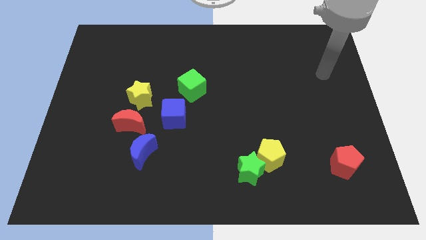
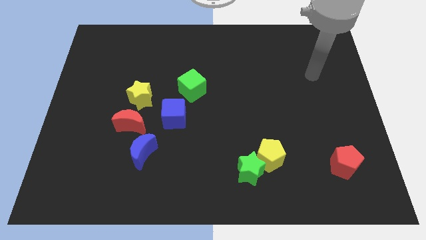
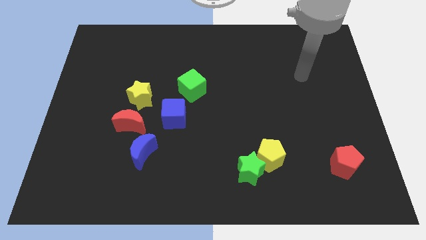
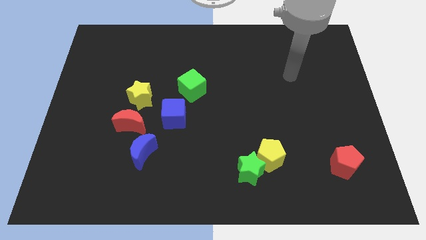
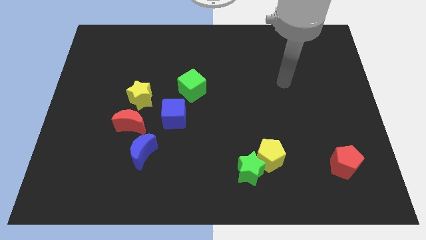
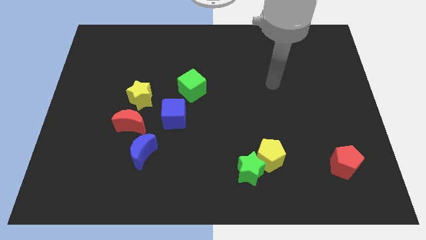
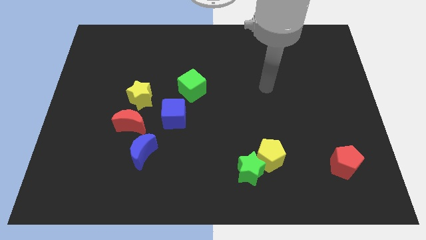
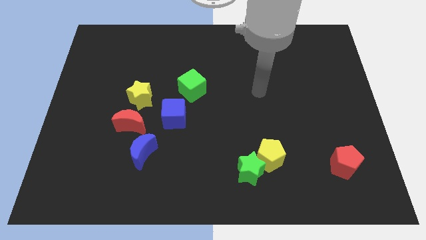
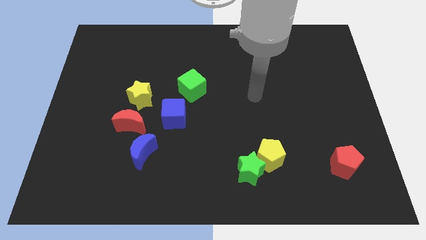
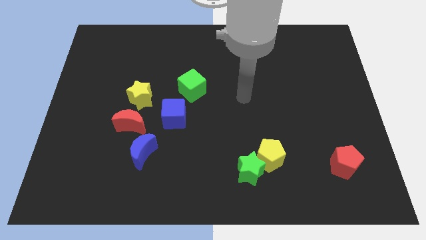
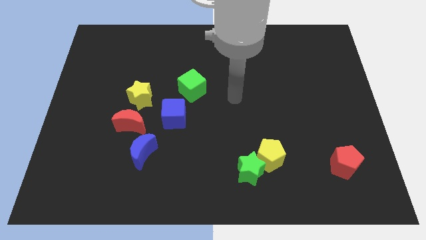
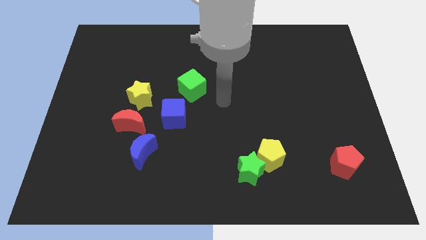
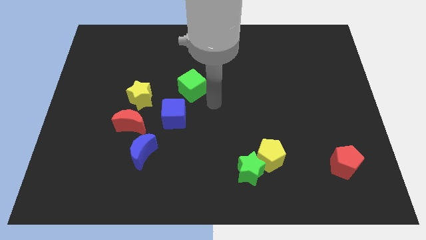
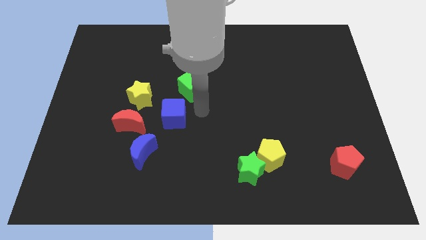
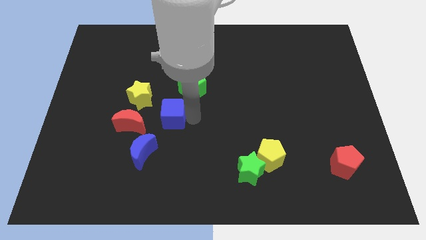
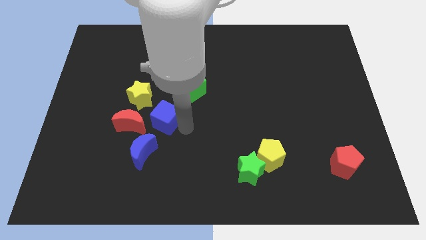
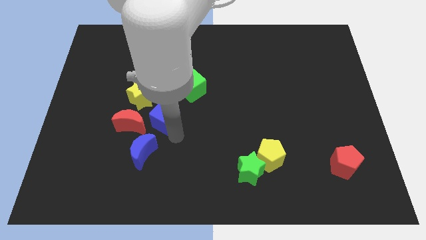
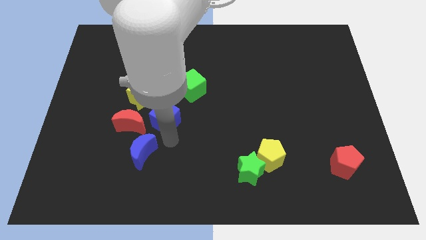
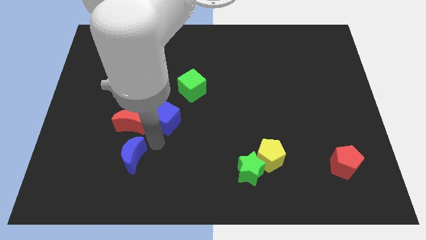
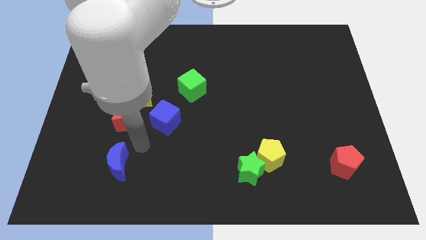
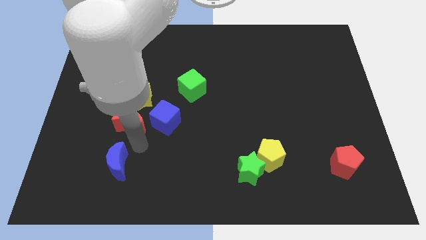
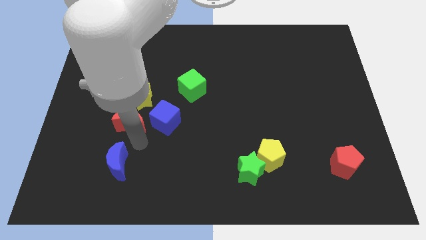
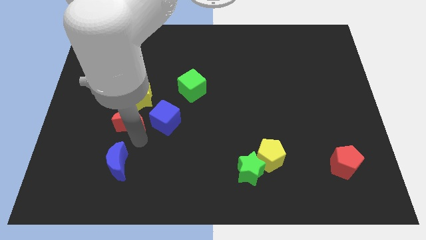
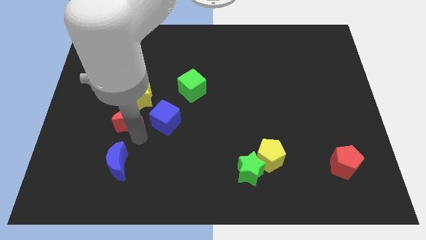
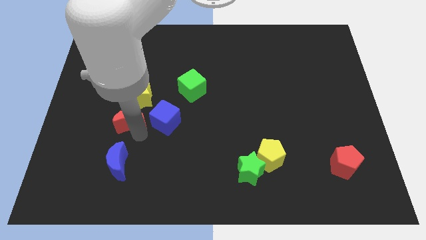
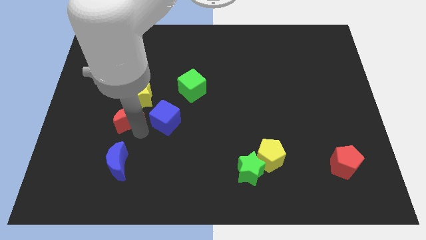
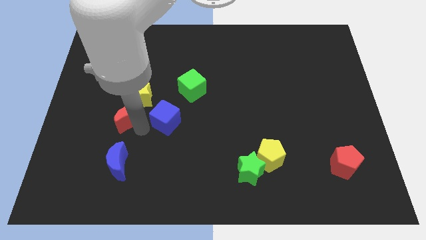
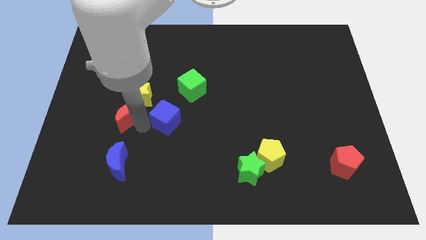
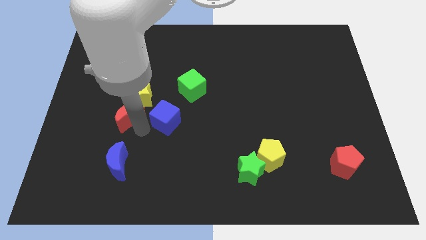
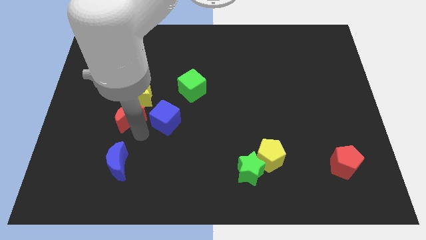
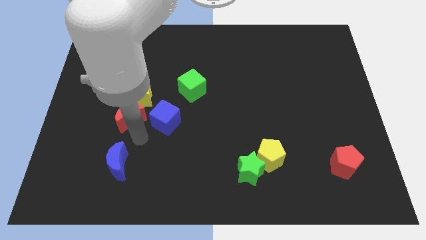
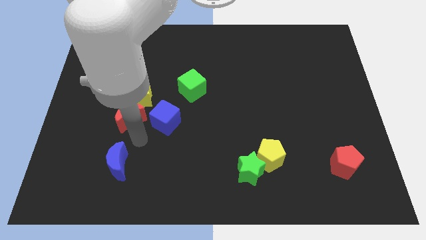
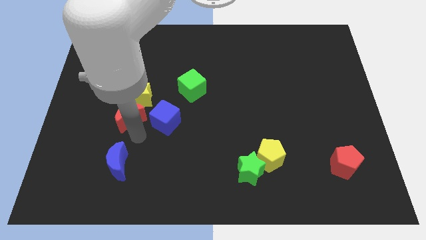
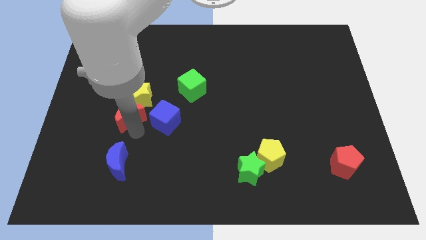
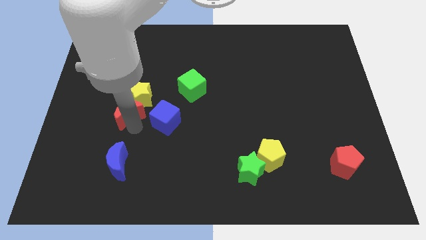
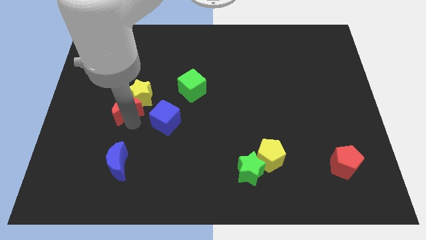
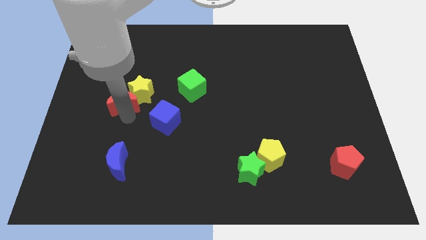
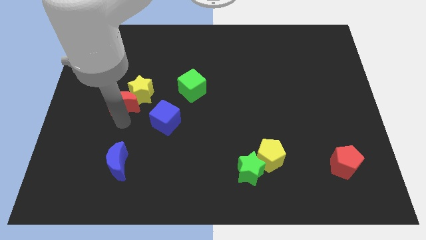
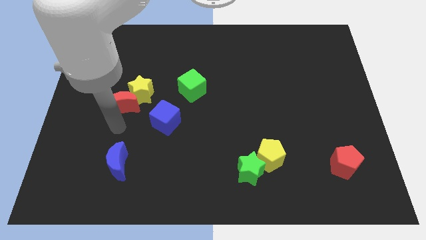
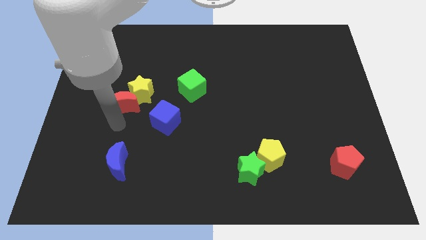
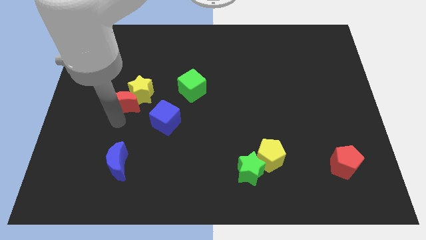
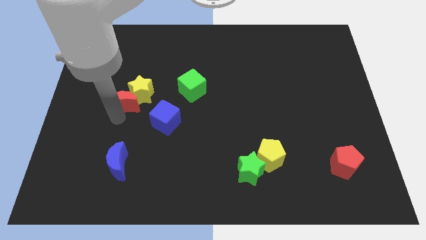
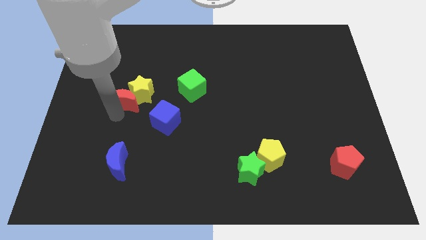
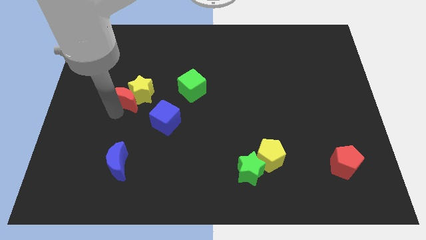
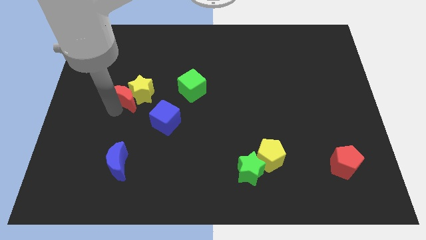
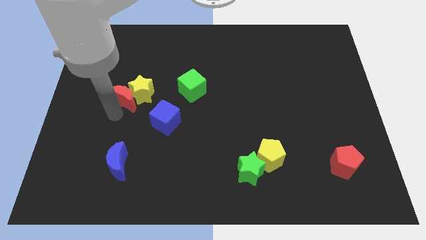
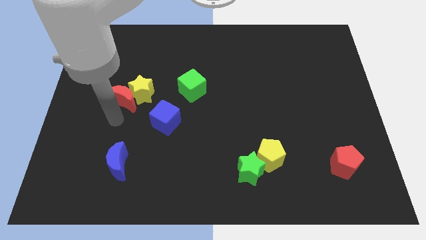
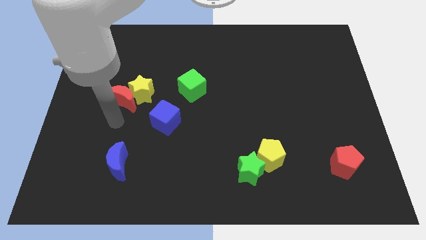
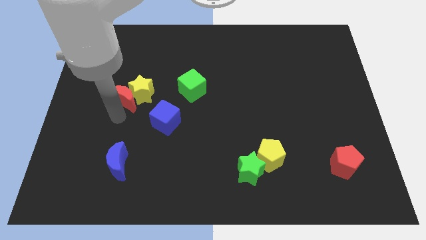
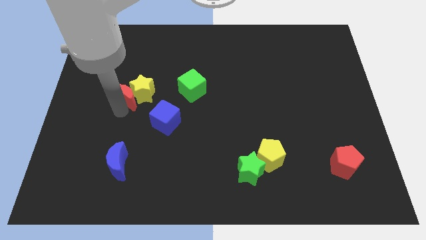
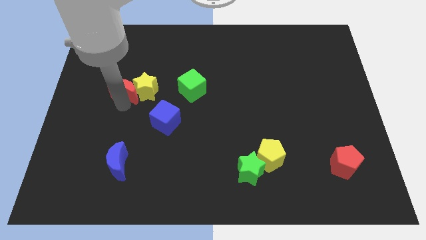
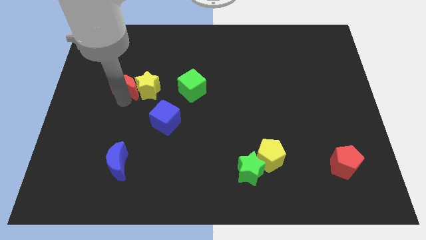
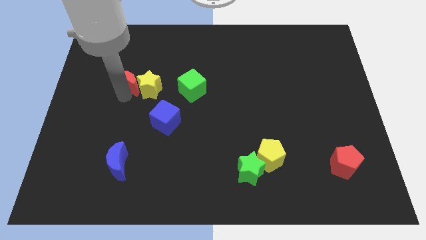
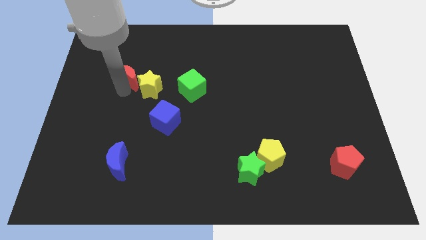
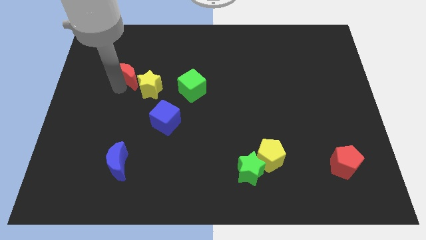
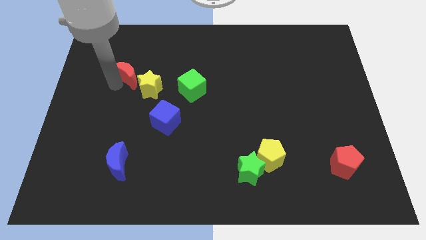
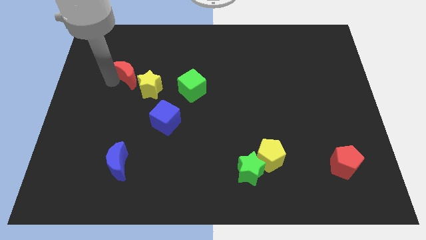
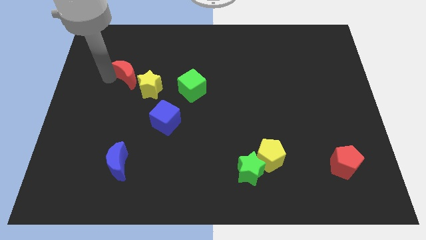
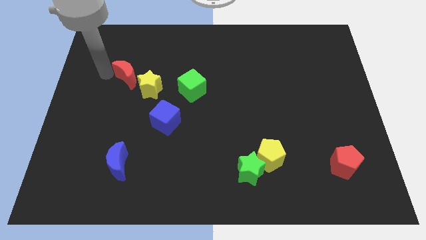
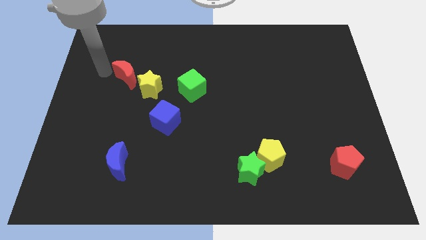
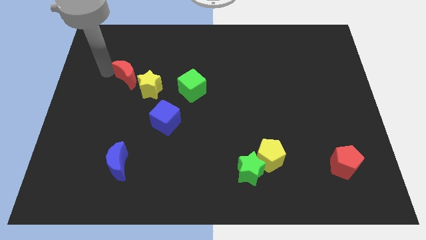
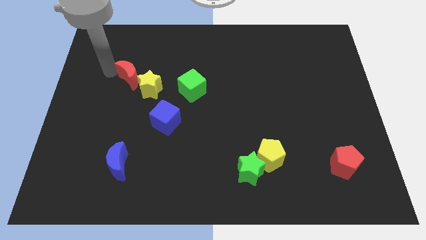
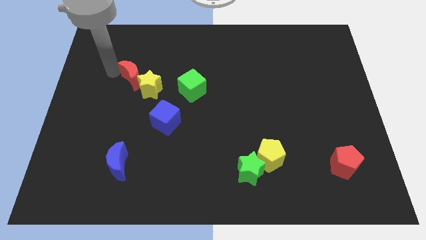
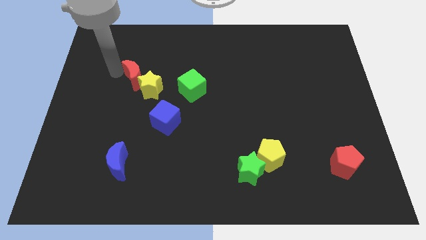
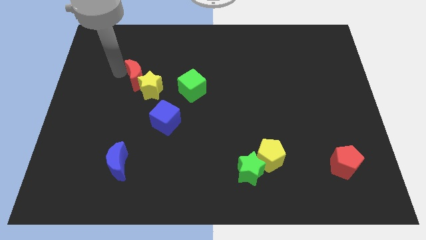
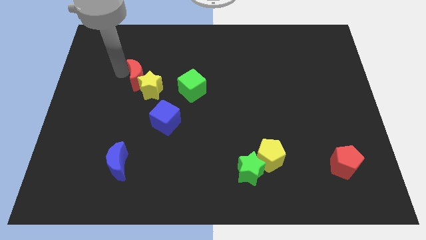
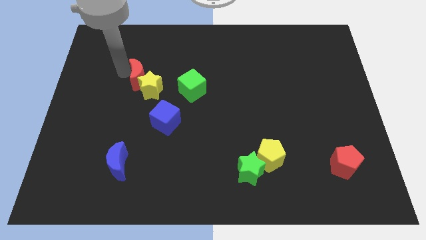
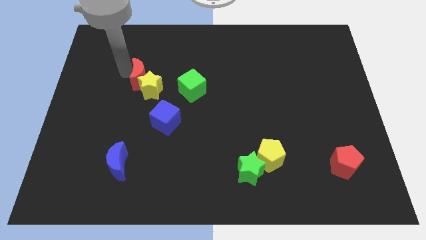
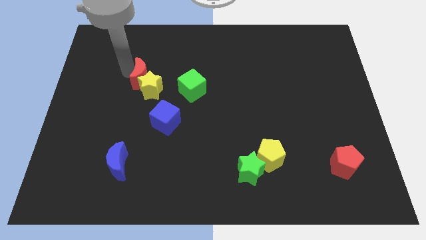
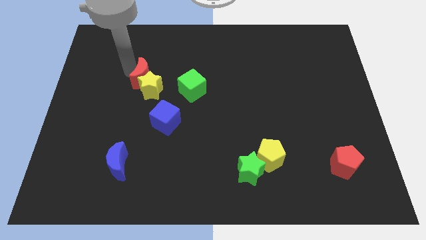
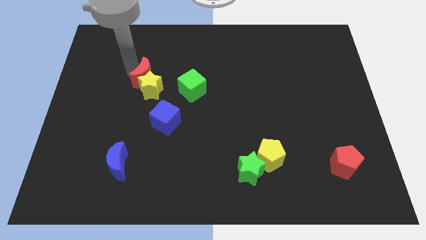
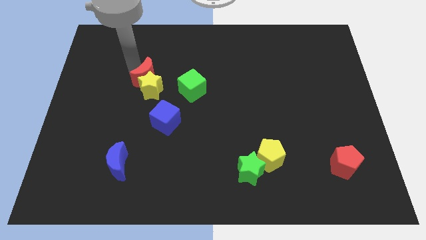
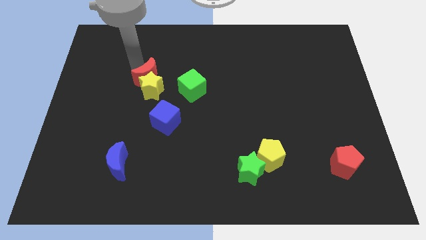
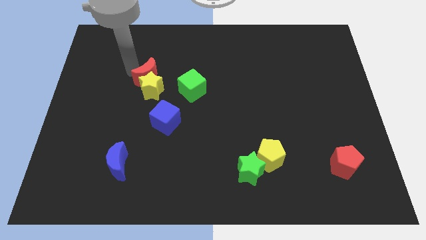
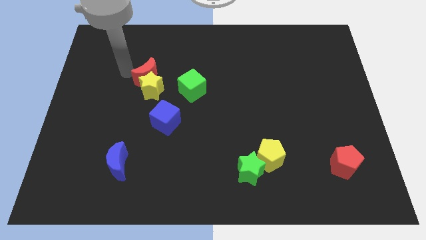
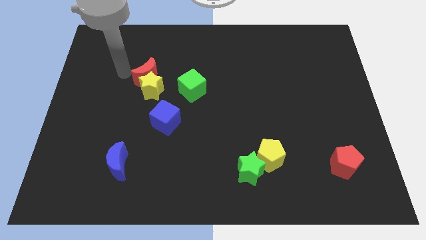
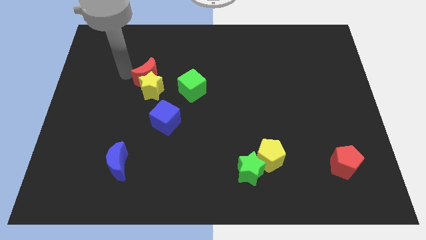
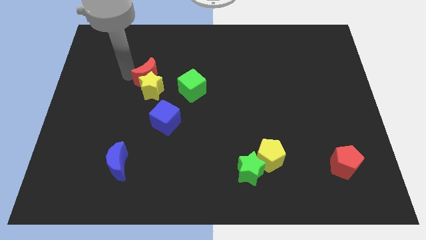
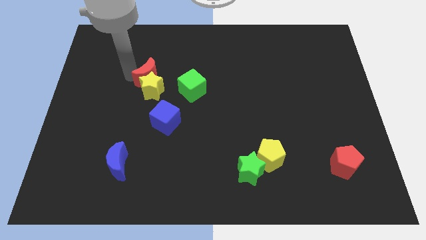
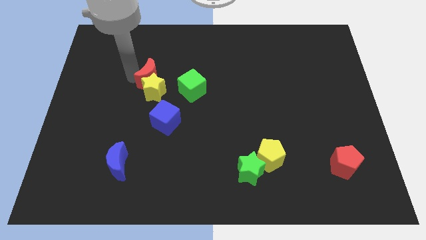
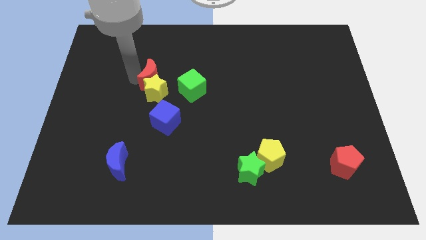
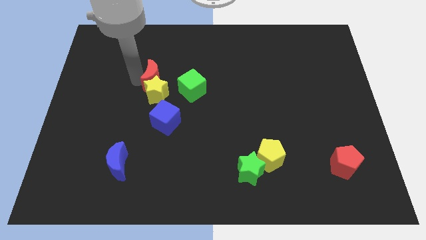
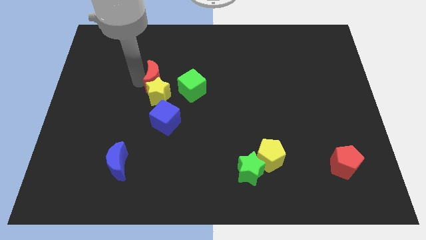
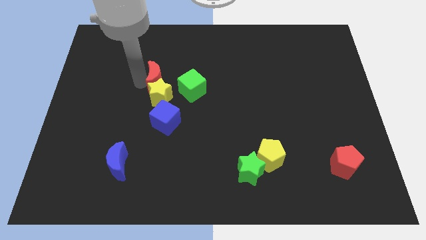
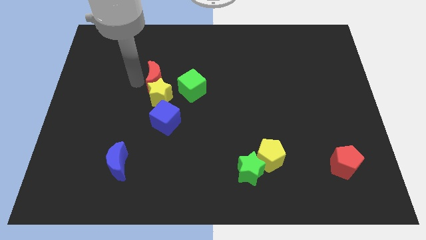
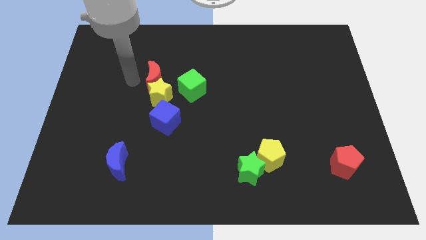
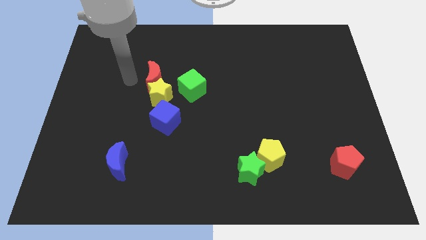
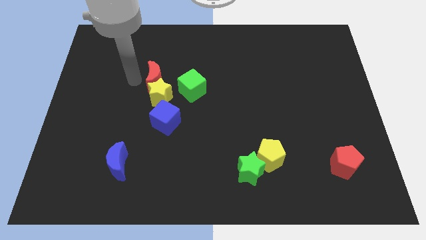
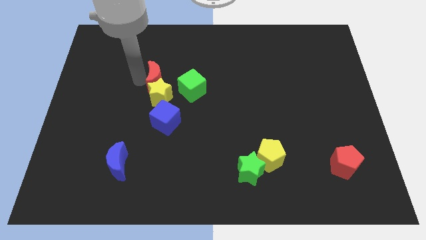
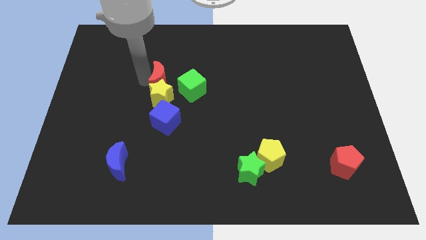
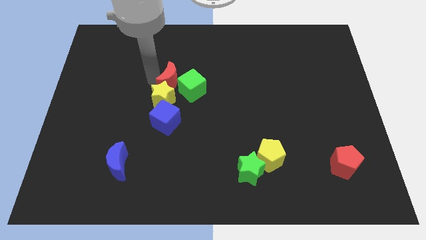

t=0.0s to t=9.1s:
push the red moon to the green cube
